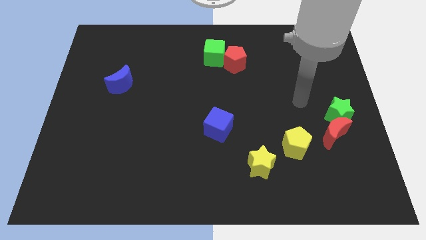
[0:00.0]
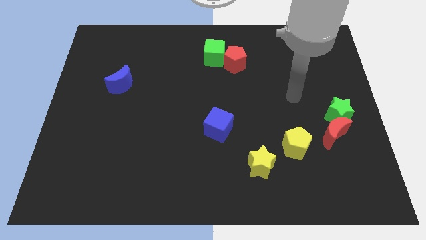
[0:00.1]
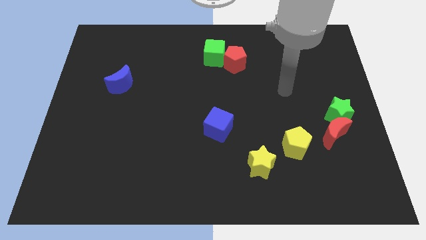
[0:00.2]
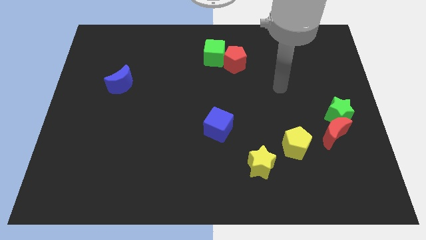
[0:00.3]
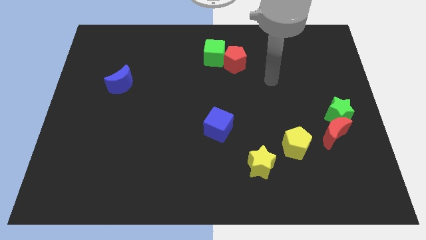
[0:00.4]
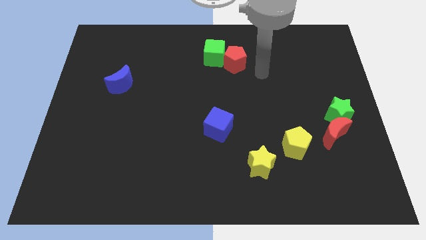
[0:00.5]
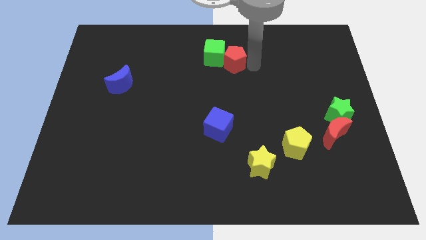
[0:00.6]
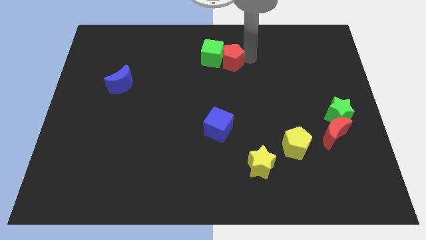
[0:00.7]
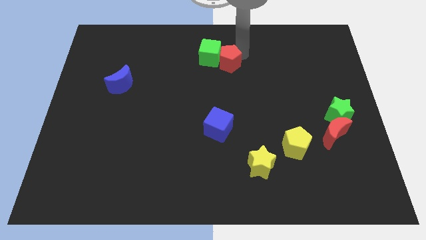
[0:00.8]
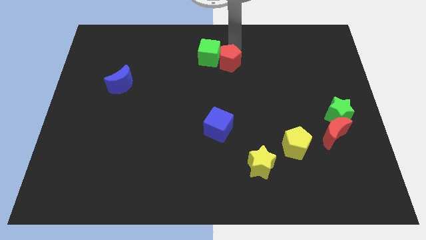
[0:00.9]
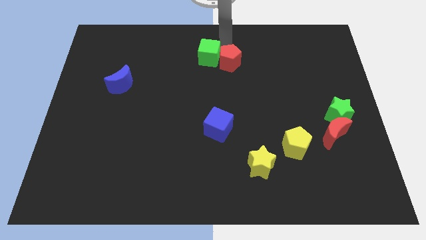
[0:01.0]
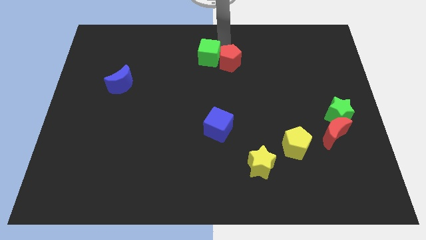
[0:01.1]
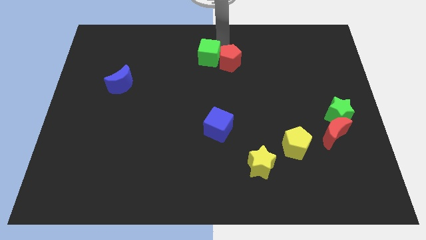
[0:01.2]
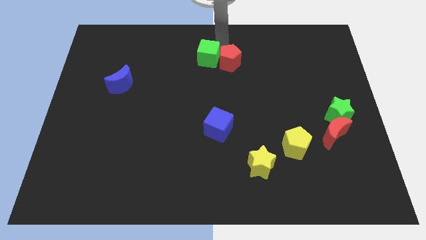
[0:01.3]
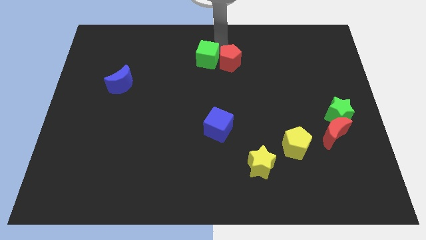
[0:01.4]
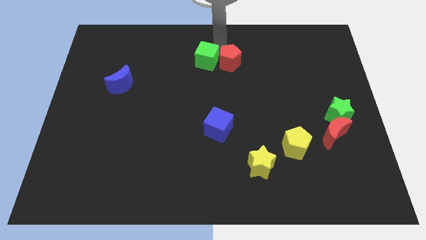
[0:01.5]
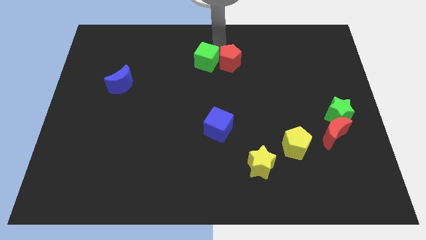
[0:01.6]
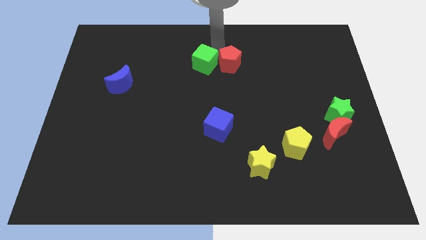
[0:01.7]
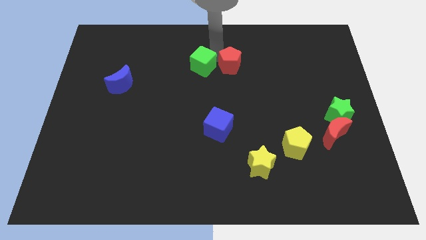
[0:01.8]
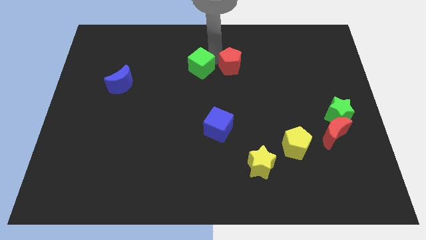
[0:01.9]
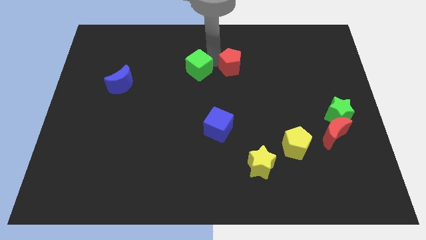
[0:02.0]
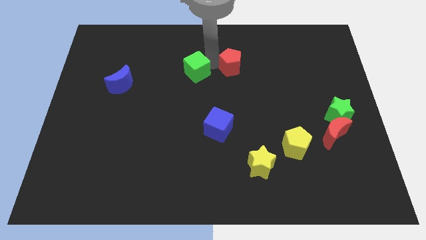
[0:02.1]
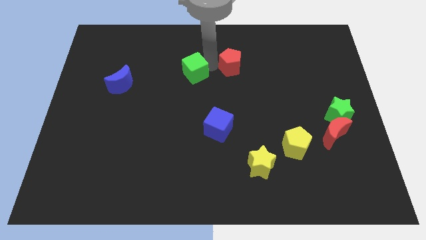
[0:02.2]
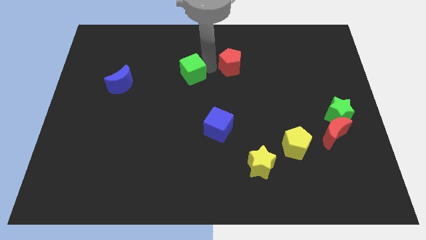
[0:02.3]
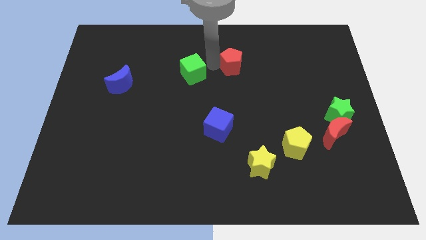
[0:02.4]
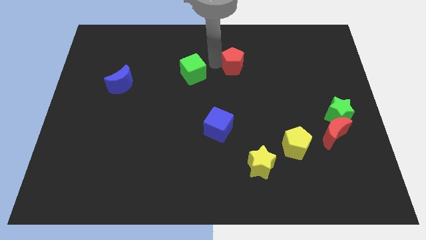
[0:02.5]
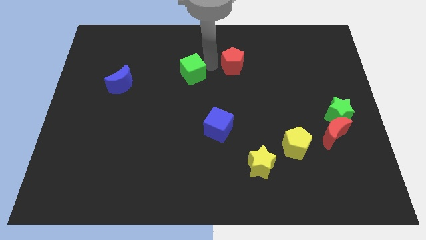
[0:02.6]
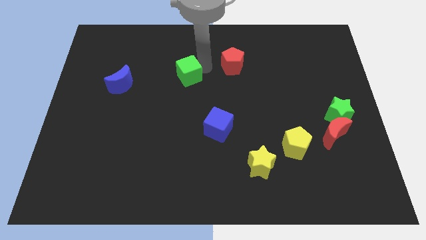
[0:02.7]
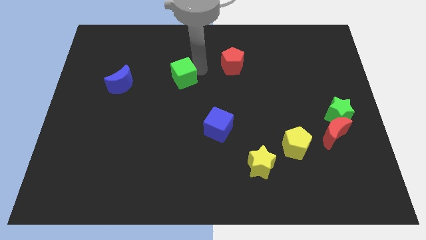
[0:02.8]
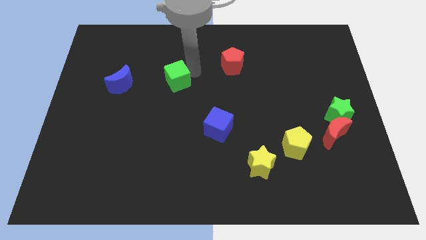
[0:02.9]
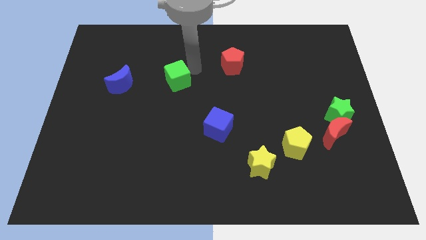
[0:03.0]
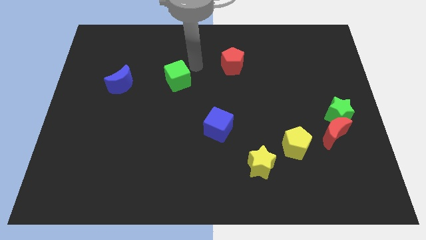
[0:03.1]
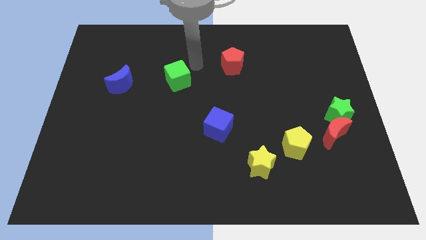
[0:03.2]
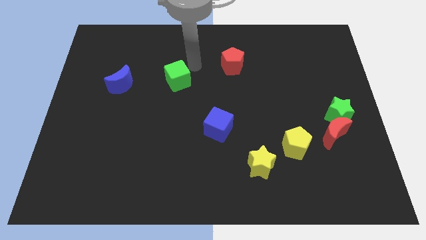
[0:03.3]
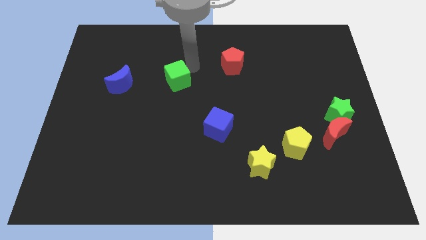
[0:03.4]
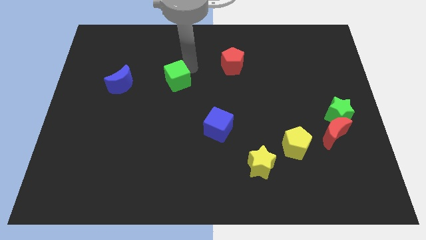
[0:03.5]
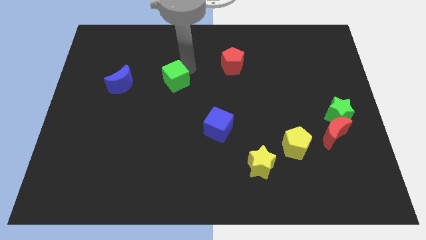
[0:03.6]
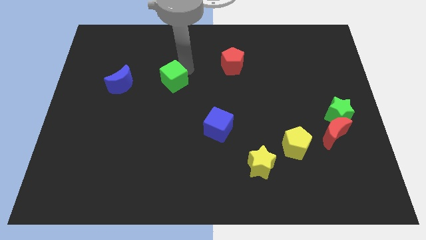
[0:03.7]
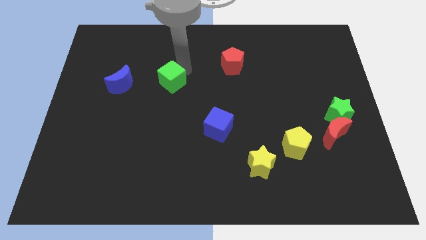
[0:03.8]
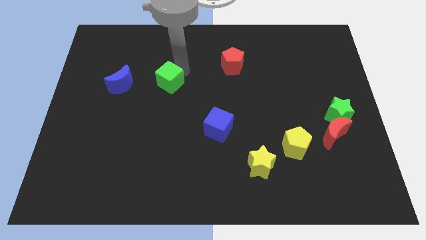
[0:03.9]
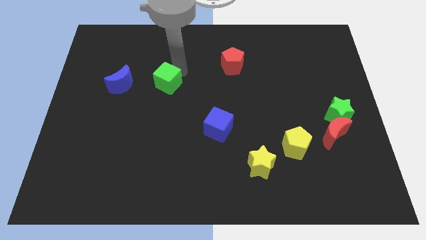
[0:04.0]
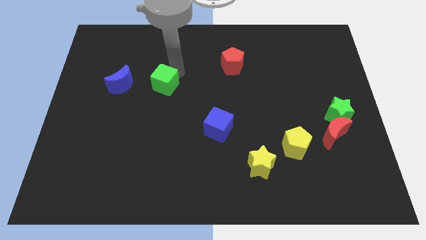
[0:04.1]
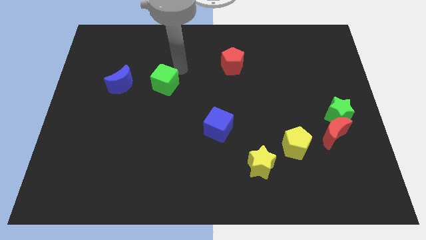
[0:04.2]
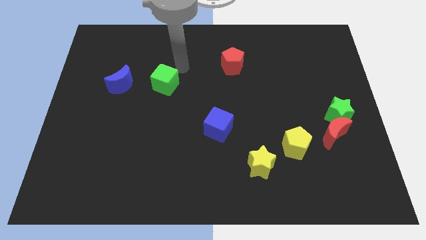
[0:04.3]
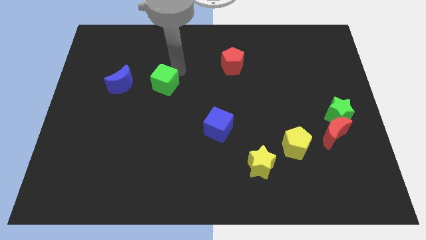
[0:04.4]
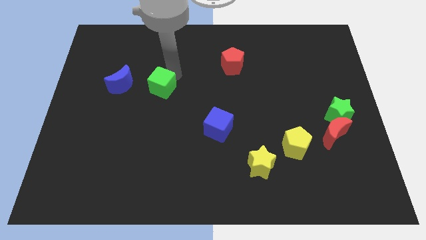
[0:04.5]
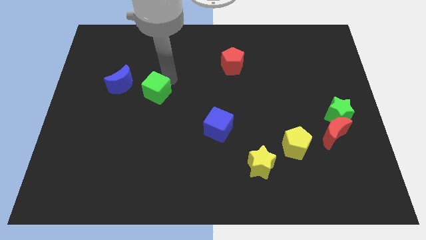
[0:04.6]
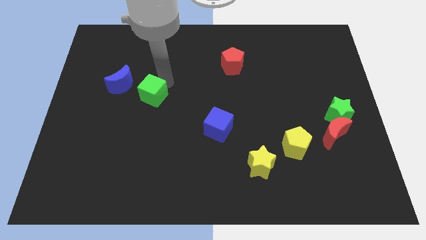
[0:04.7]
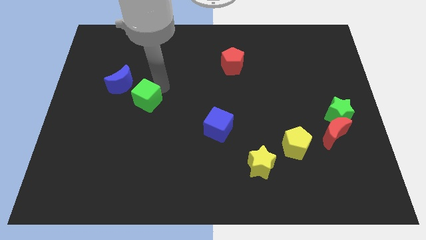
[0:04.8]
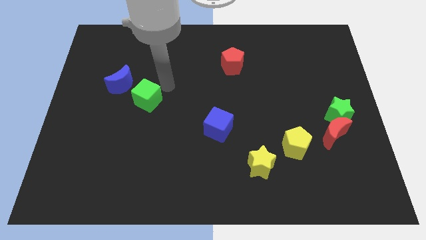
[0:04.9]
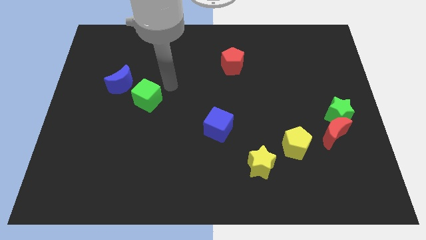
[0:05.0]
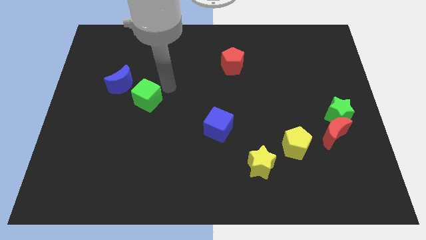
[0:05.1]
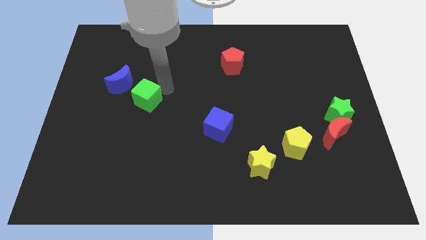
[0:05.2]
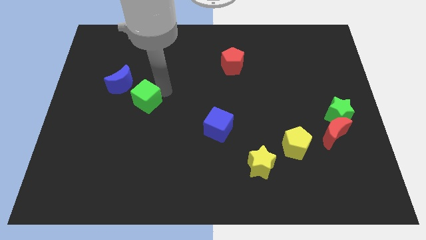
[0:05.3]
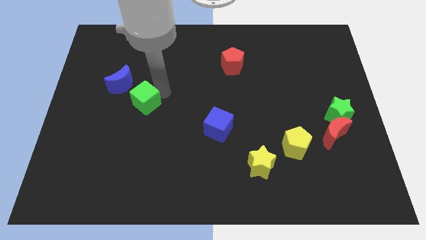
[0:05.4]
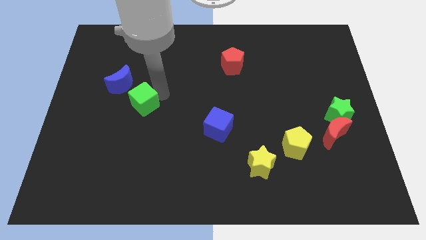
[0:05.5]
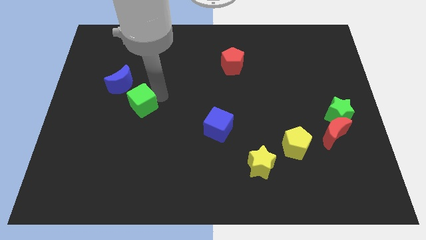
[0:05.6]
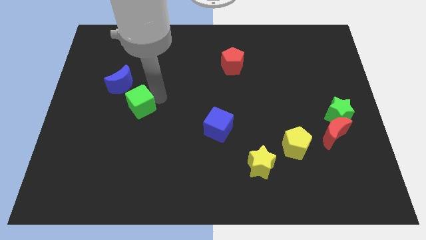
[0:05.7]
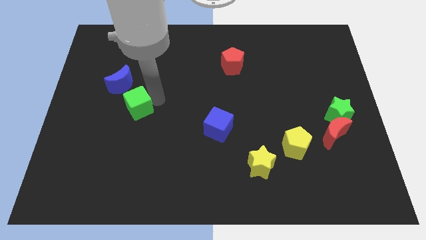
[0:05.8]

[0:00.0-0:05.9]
move the green cube below the blue moon

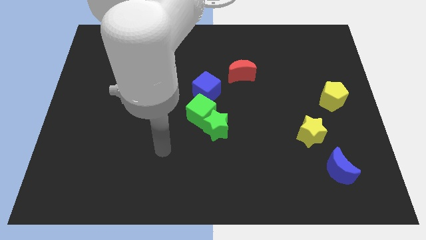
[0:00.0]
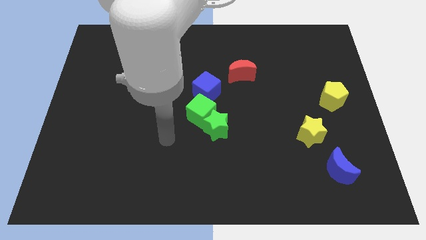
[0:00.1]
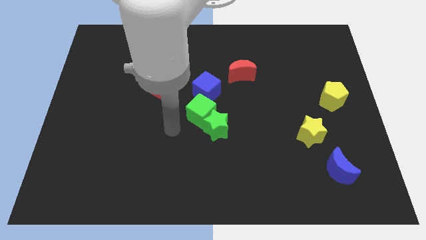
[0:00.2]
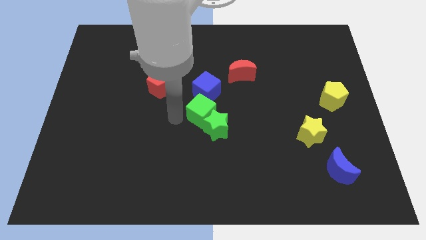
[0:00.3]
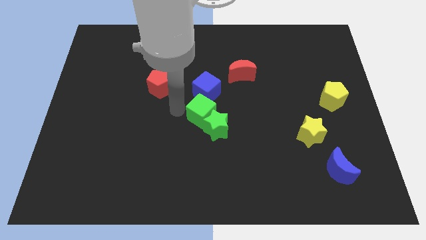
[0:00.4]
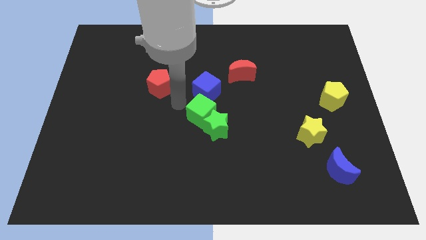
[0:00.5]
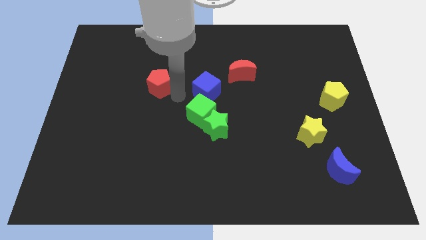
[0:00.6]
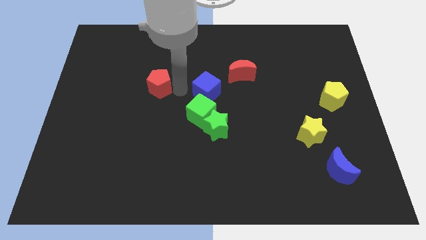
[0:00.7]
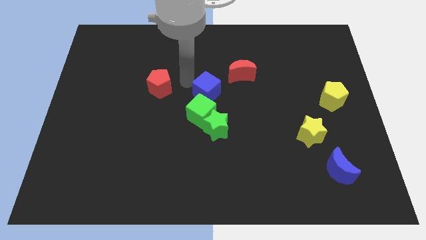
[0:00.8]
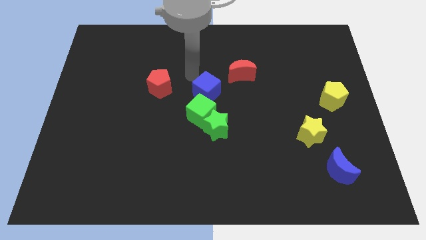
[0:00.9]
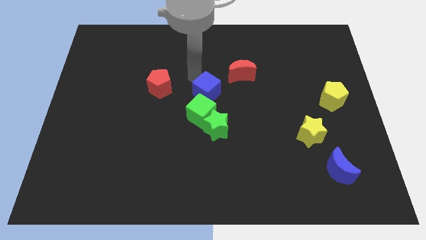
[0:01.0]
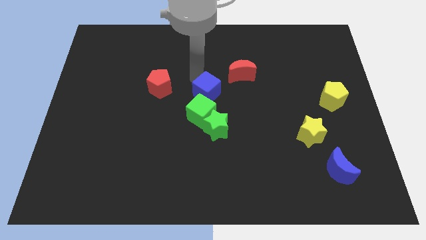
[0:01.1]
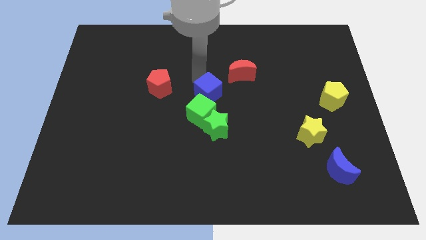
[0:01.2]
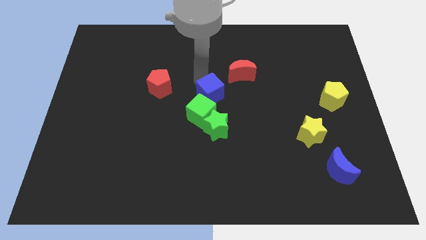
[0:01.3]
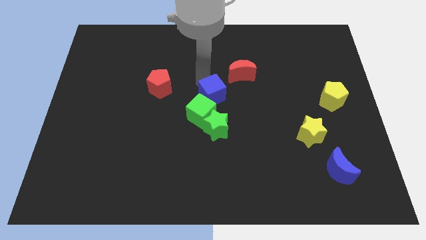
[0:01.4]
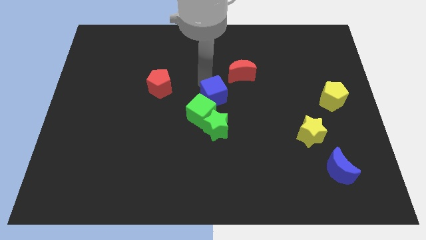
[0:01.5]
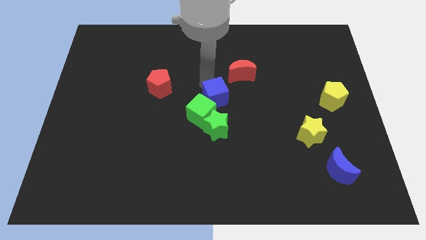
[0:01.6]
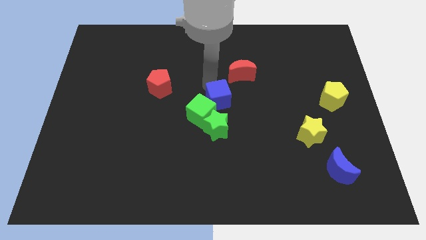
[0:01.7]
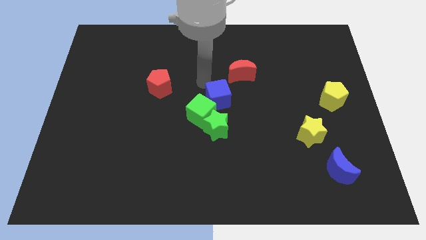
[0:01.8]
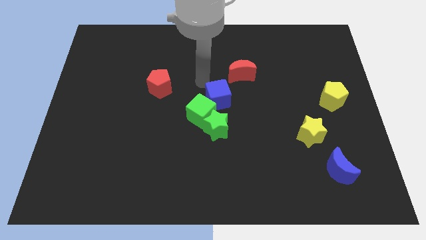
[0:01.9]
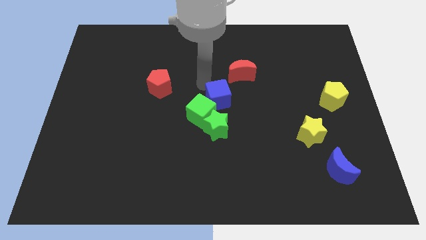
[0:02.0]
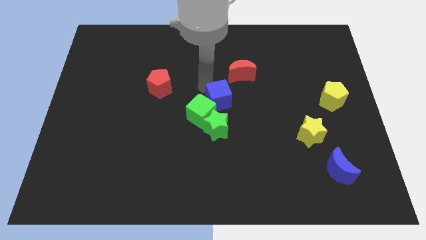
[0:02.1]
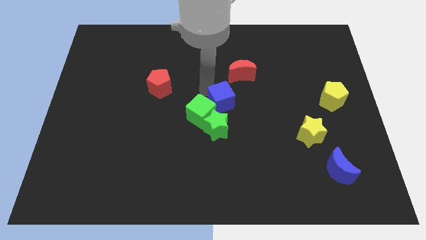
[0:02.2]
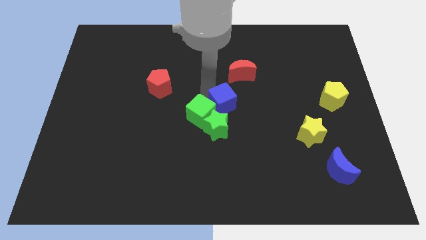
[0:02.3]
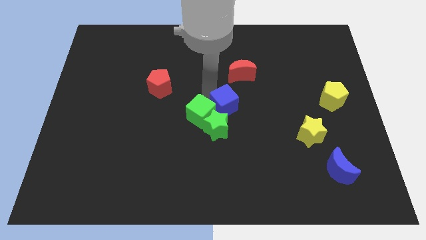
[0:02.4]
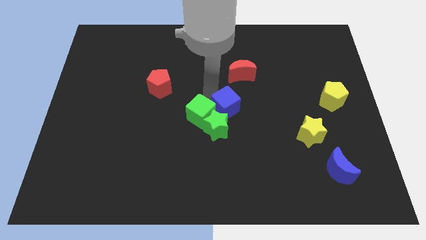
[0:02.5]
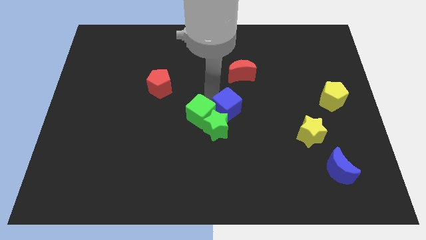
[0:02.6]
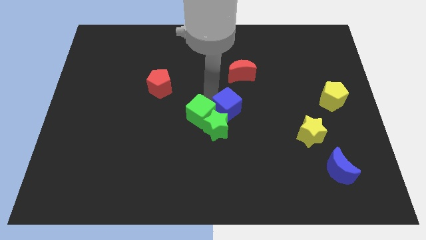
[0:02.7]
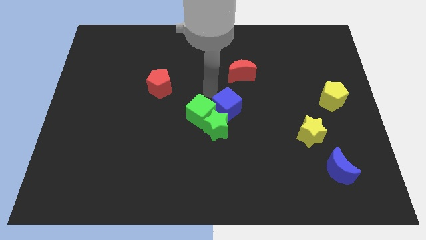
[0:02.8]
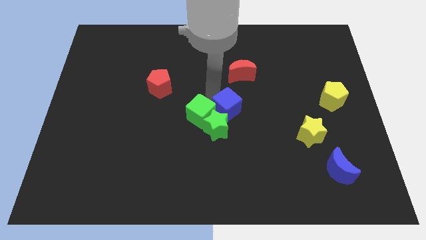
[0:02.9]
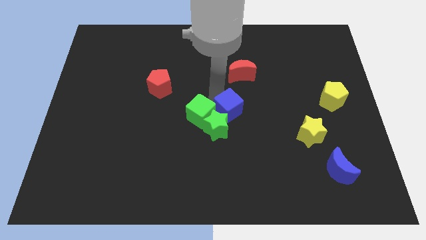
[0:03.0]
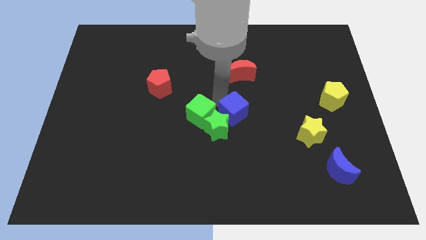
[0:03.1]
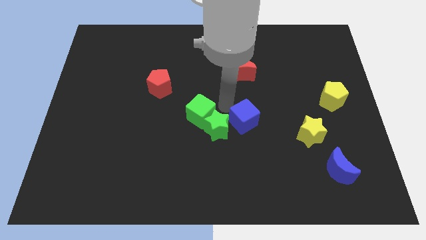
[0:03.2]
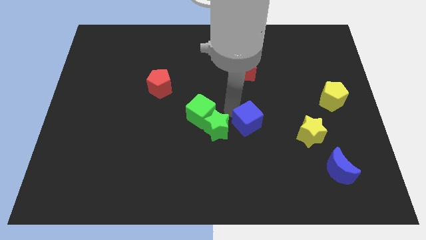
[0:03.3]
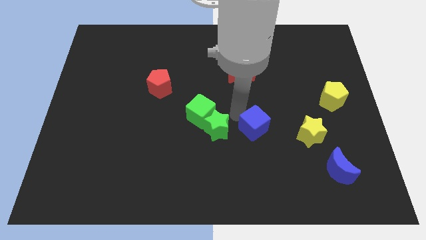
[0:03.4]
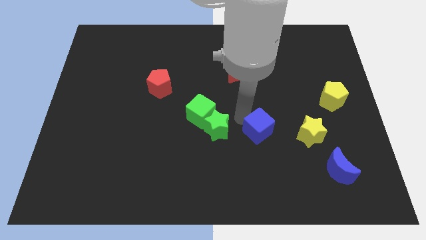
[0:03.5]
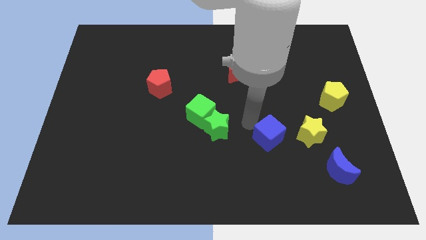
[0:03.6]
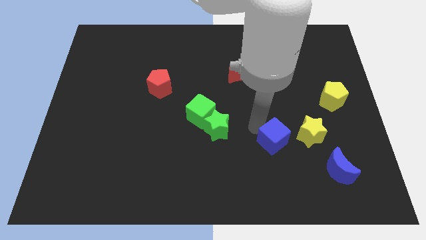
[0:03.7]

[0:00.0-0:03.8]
put the blue cube to the bottom left side of the yellow star
